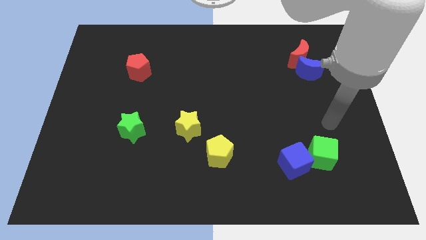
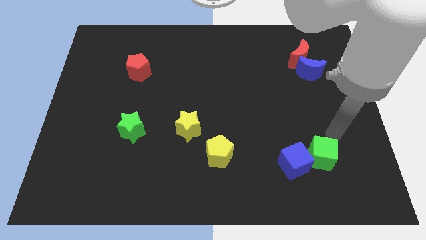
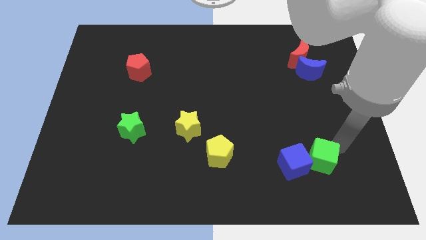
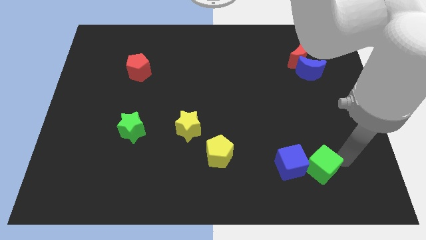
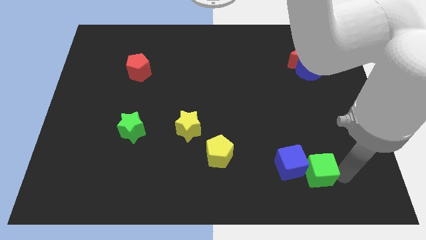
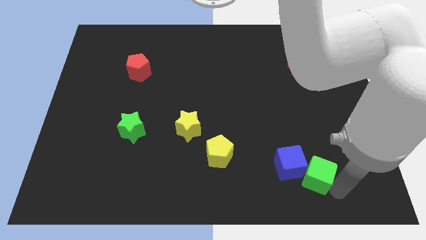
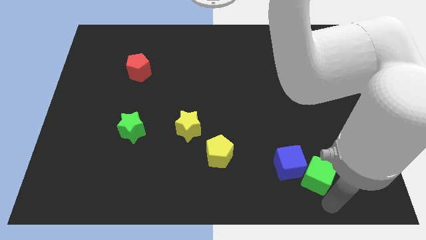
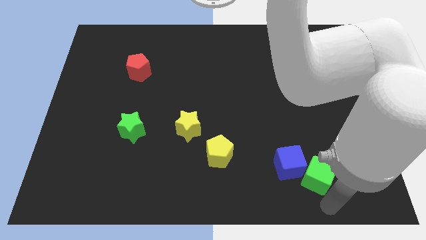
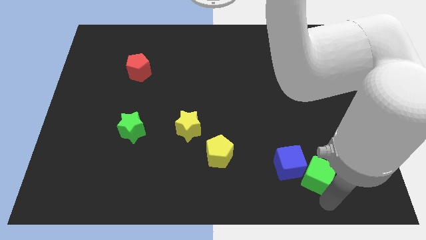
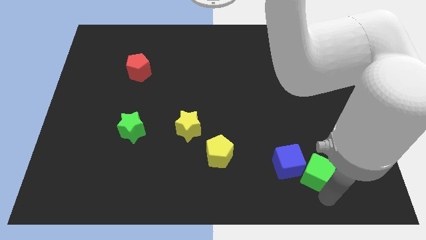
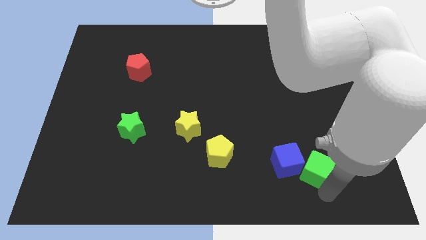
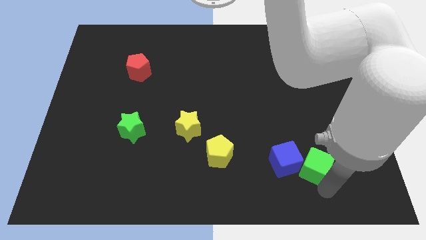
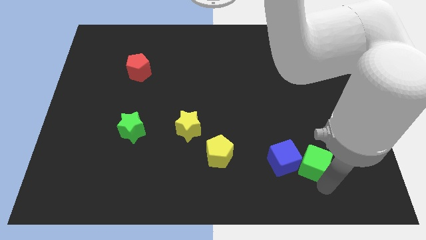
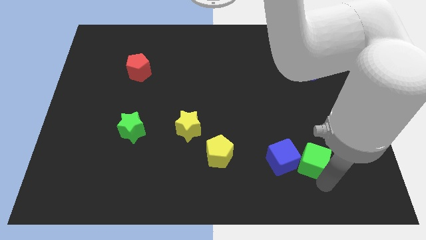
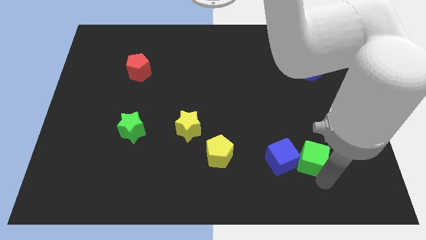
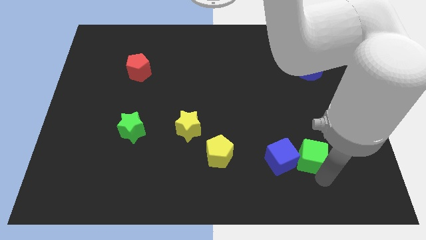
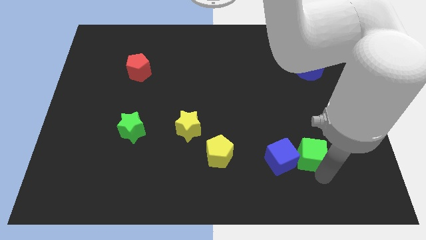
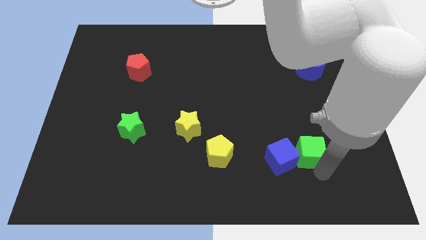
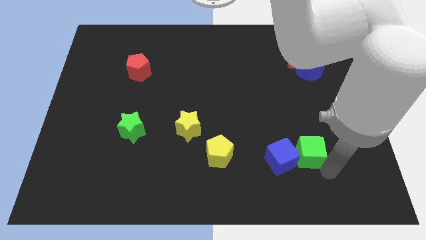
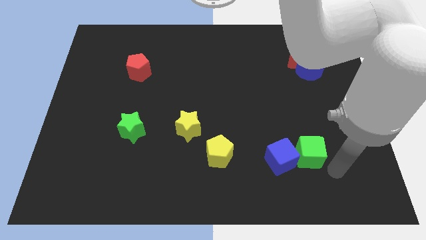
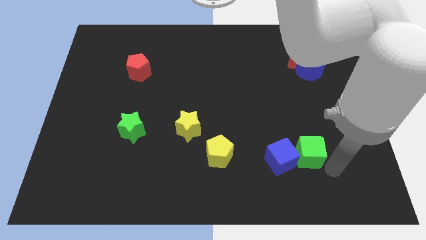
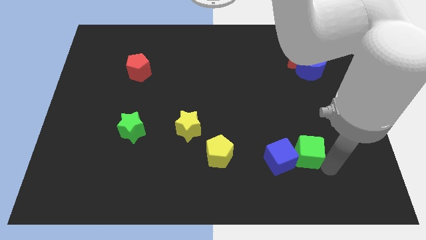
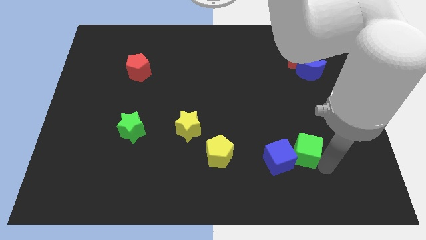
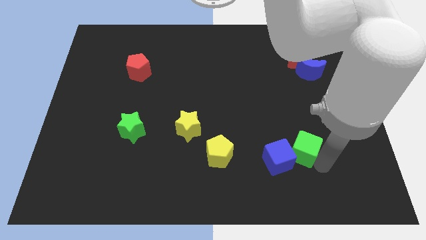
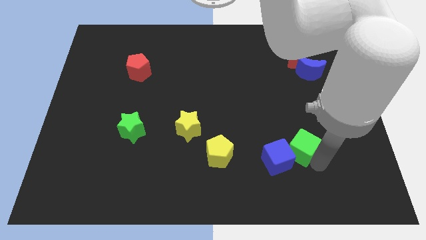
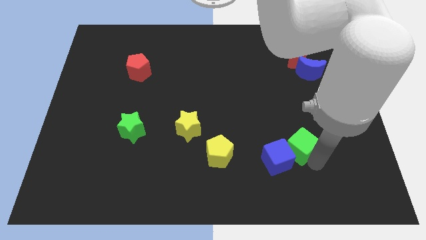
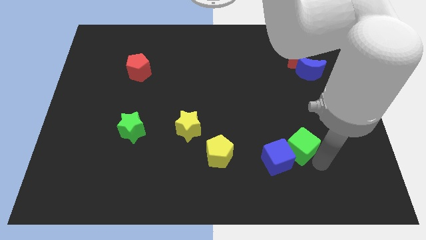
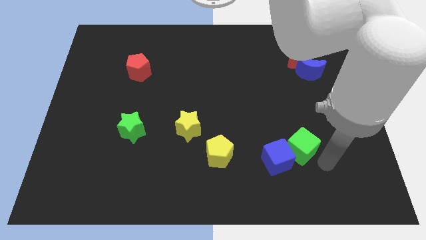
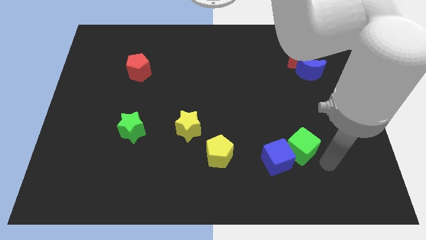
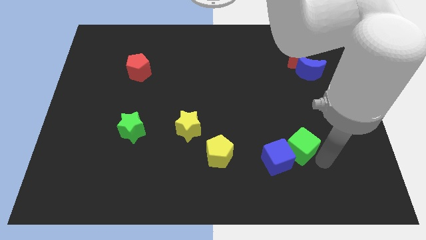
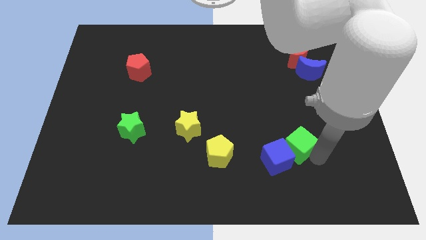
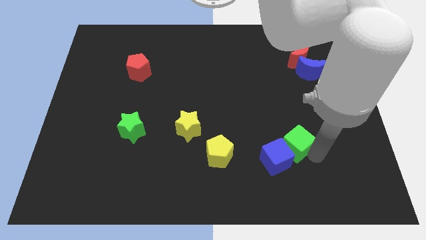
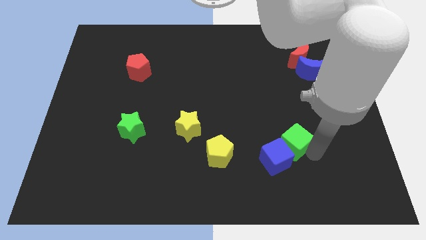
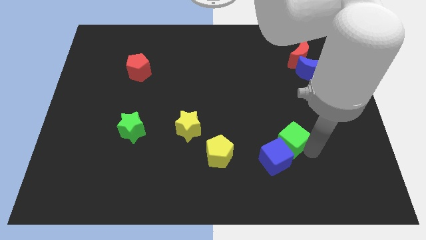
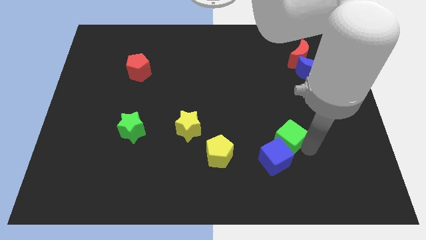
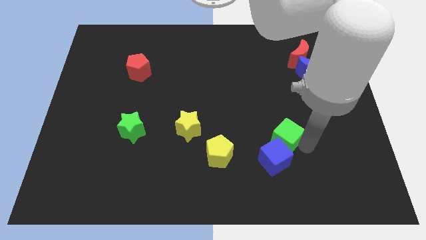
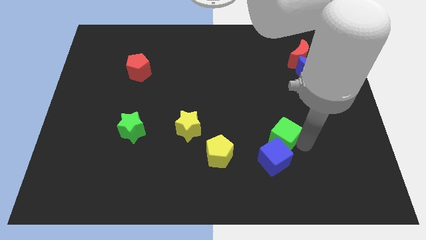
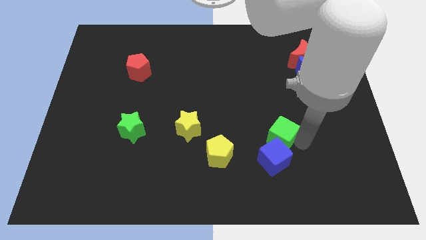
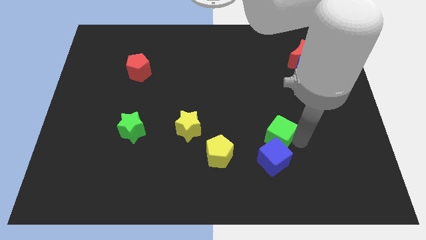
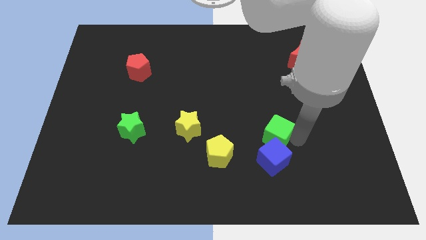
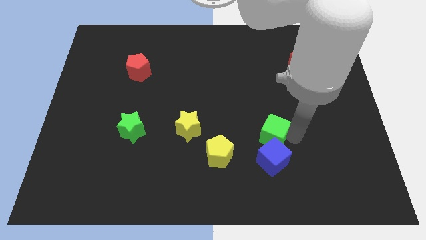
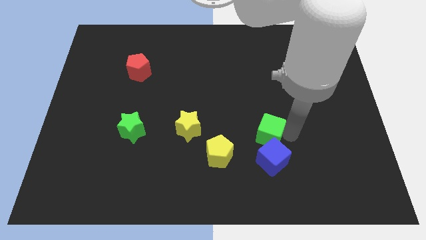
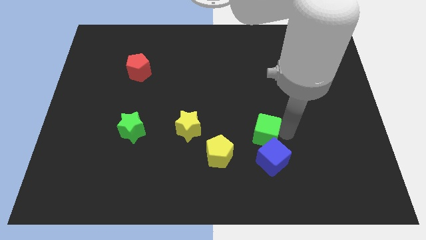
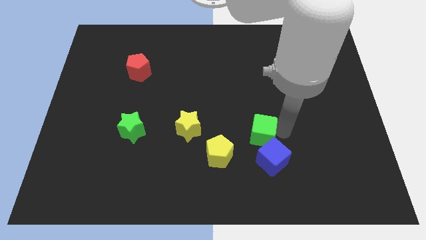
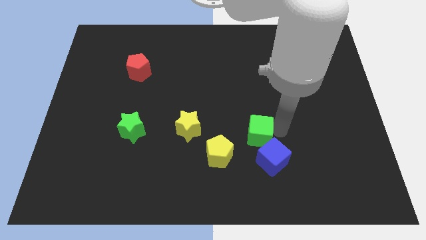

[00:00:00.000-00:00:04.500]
push the green cube to the right of the yellow star

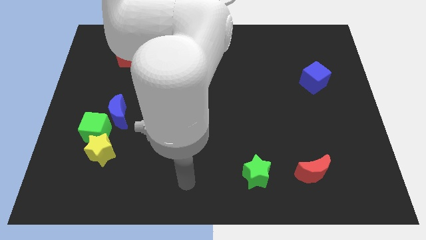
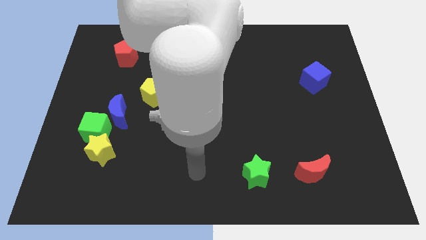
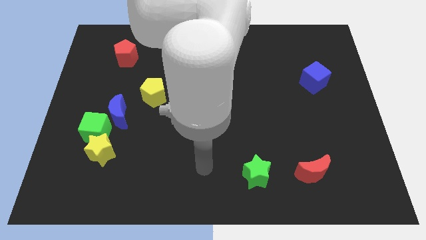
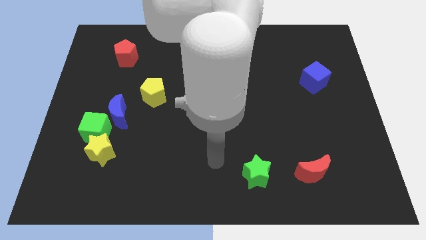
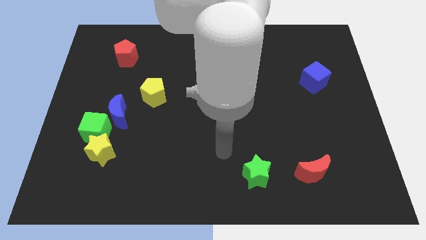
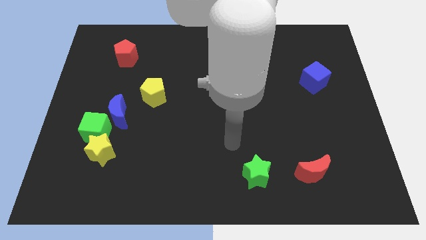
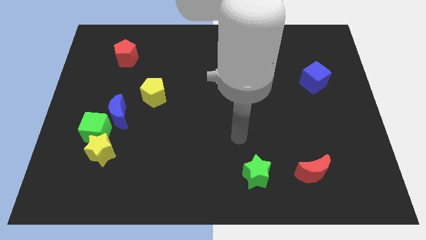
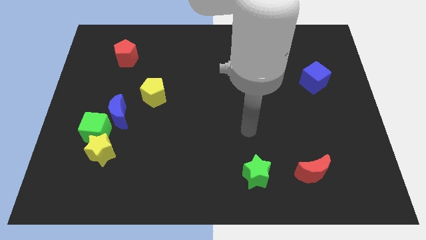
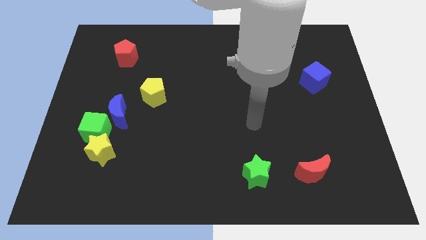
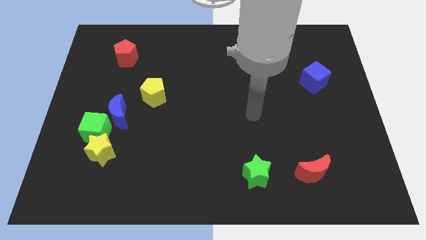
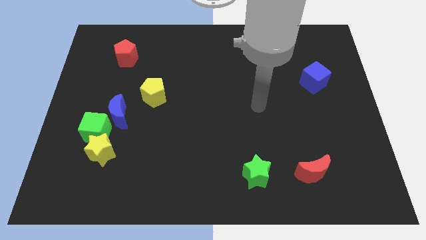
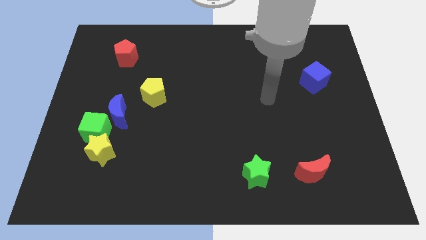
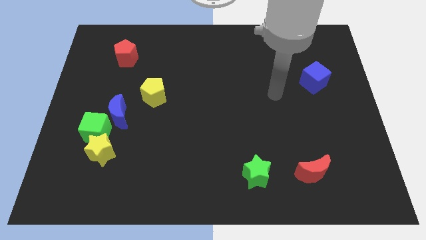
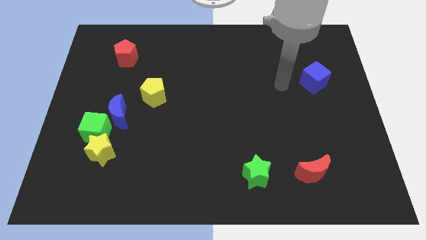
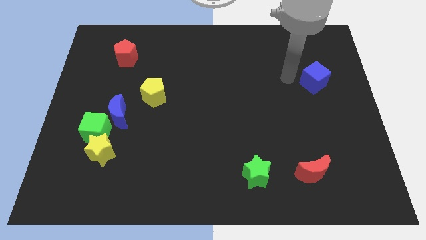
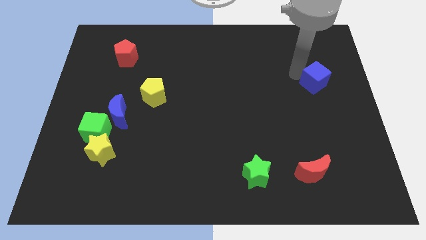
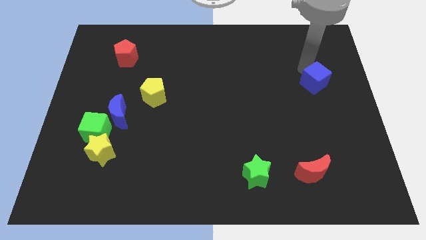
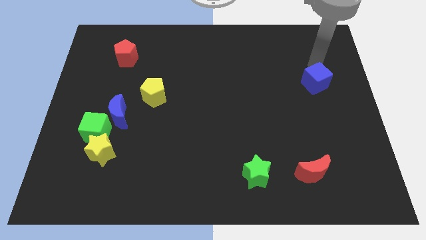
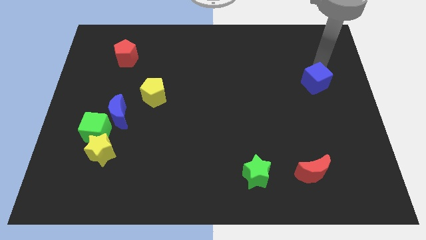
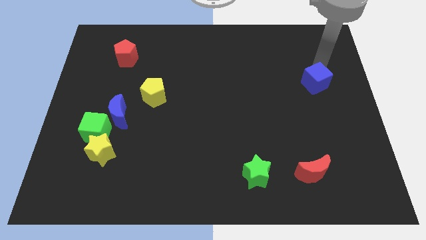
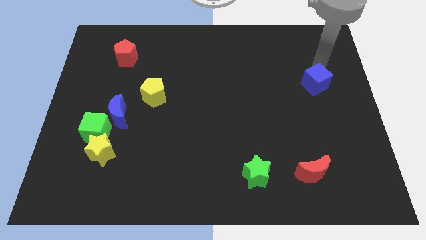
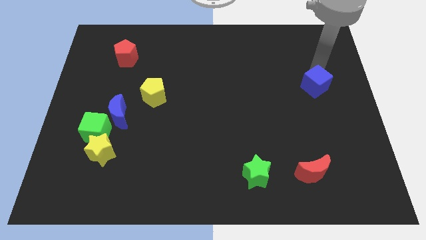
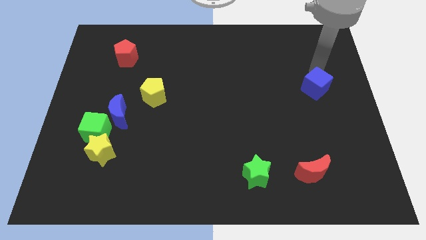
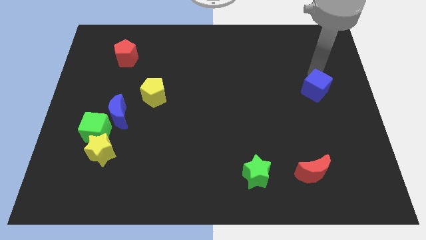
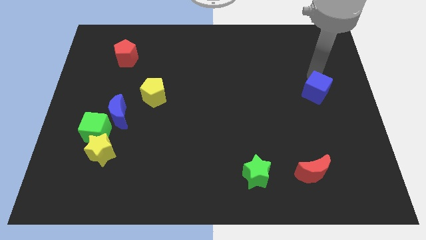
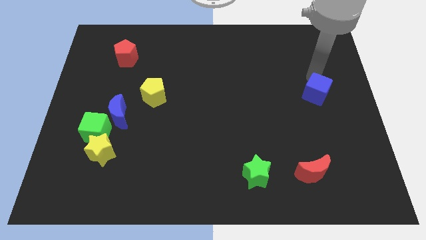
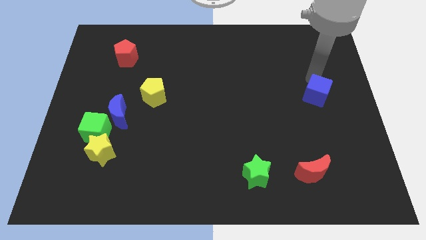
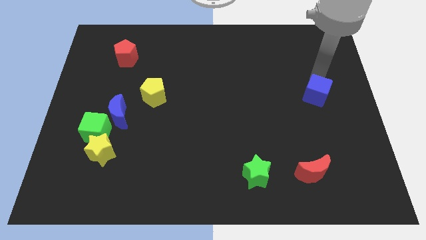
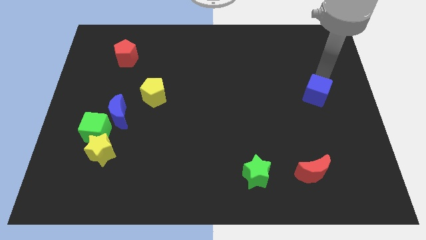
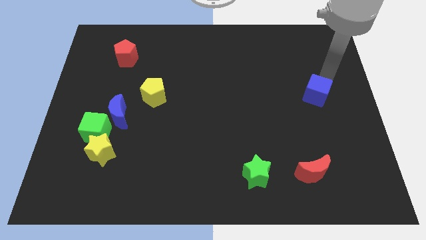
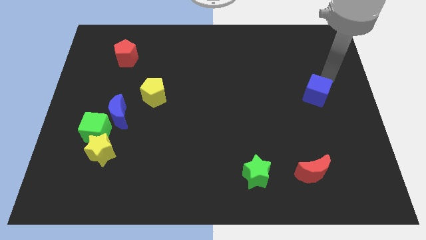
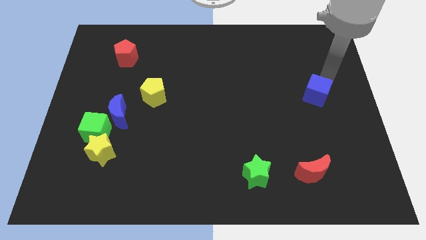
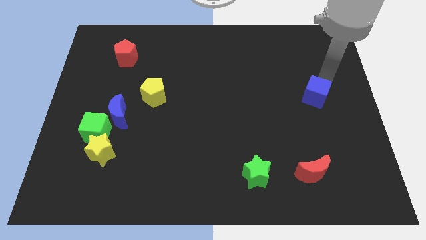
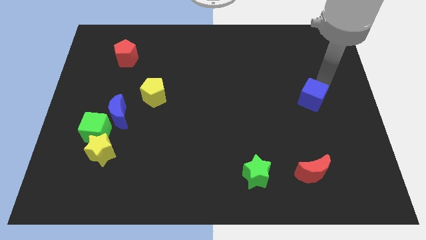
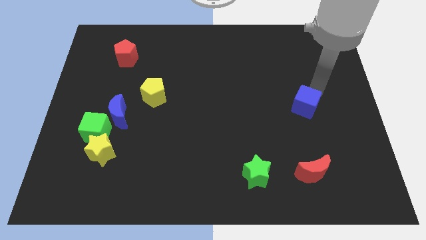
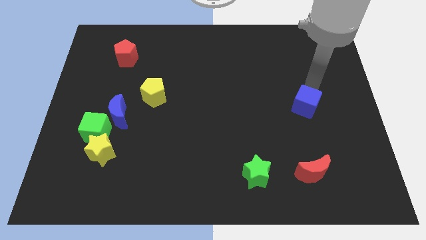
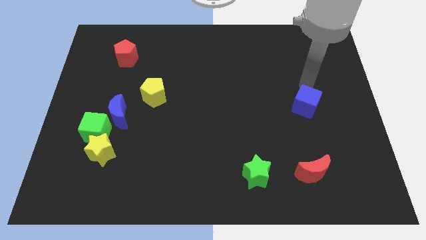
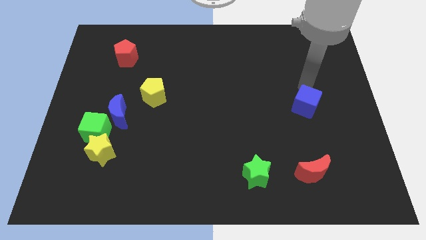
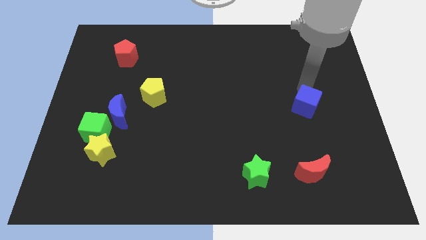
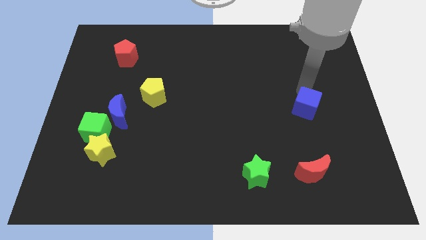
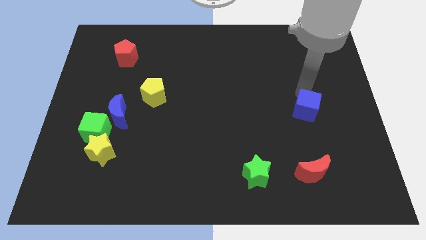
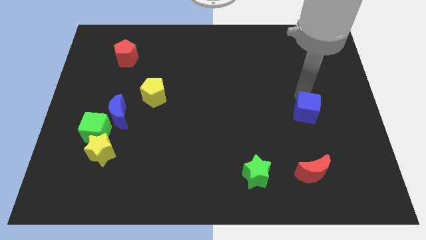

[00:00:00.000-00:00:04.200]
put the blue cube to the top of the red moon
